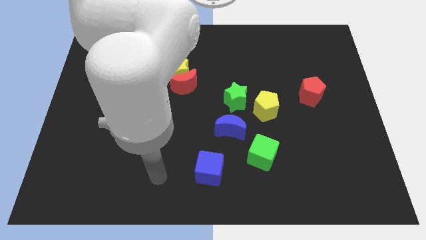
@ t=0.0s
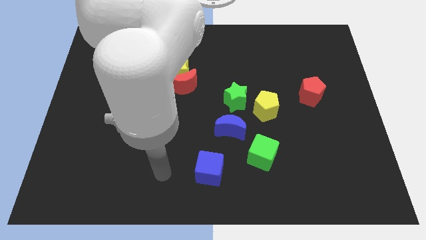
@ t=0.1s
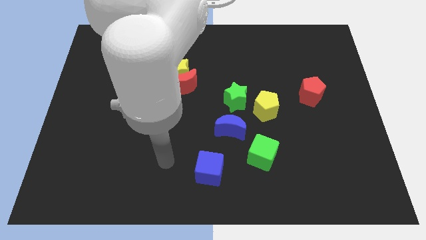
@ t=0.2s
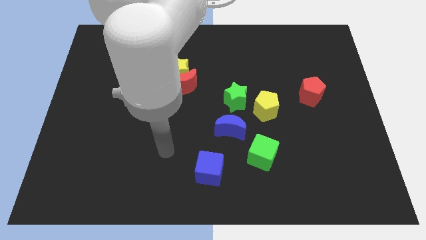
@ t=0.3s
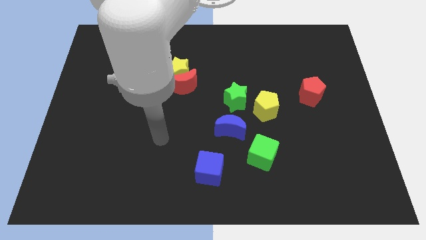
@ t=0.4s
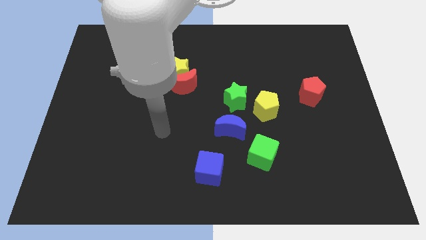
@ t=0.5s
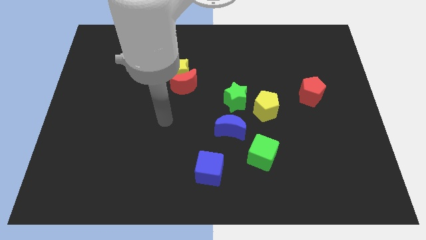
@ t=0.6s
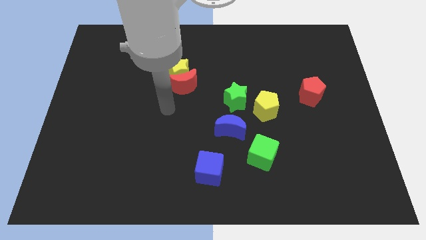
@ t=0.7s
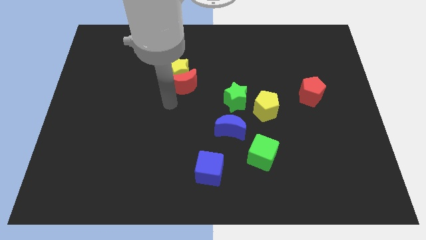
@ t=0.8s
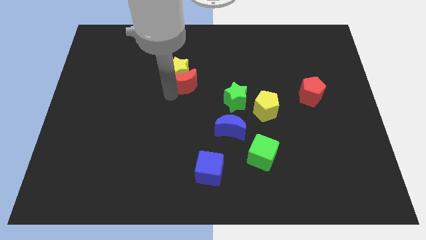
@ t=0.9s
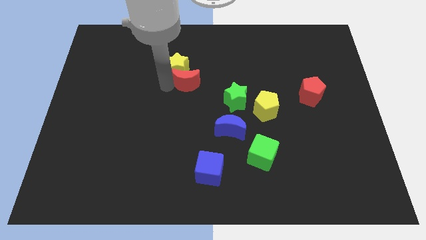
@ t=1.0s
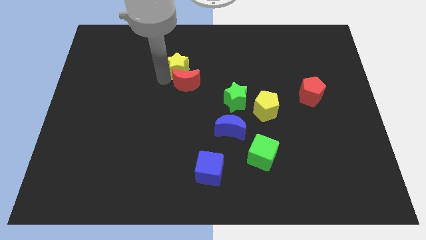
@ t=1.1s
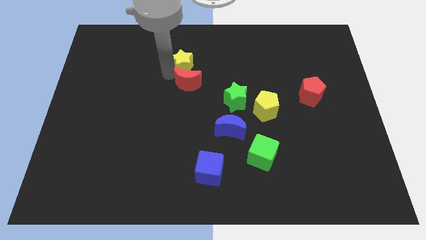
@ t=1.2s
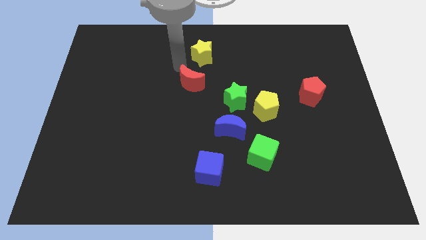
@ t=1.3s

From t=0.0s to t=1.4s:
separate the red moon from the yellow star

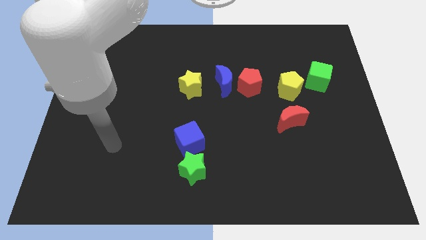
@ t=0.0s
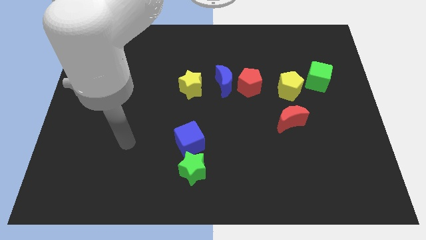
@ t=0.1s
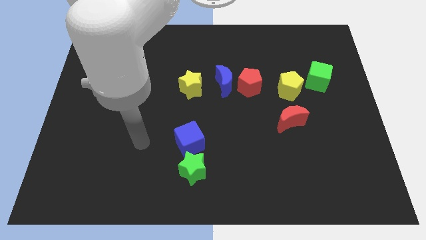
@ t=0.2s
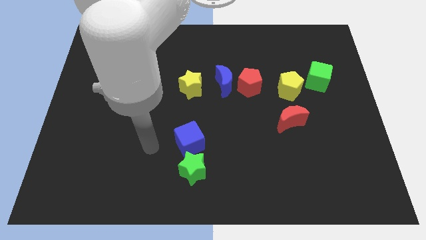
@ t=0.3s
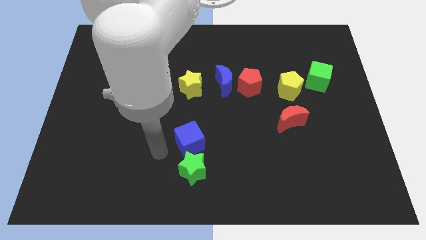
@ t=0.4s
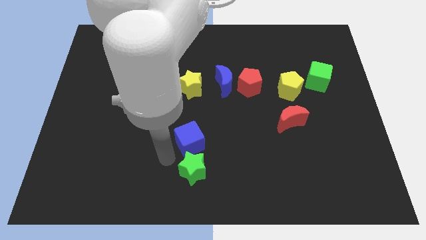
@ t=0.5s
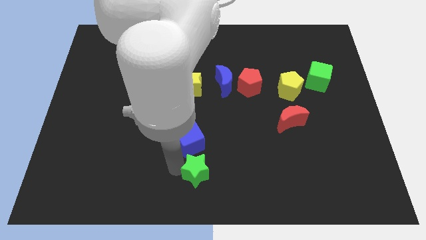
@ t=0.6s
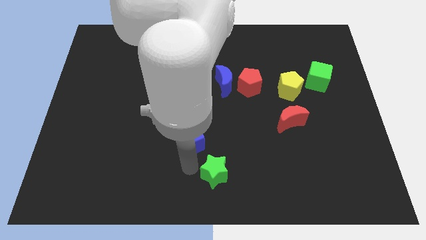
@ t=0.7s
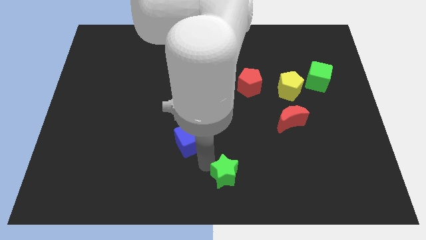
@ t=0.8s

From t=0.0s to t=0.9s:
separate the blue cube from the green star

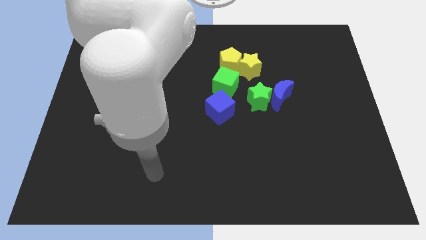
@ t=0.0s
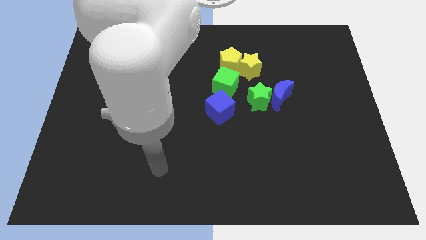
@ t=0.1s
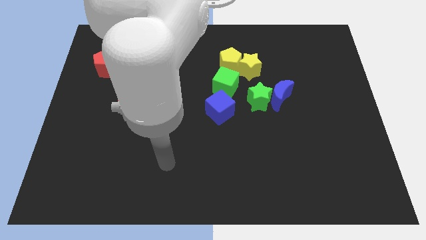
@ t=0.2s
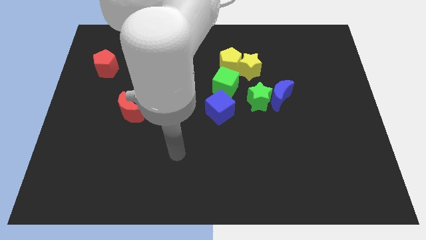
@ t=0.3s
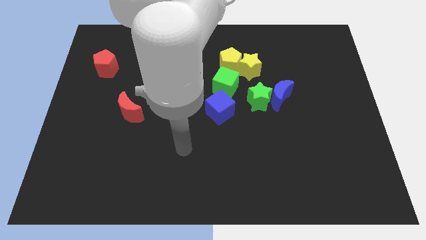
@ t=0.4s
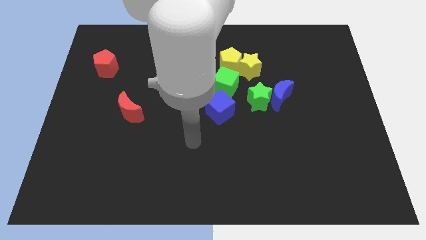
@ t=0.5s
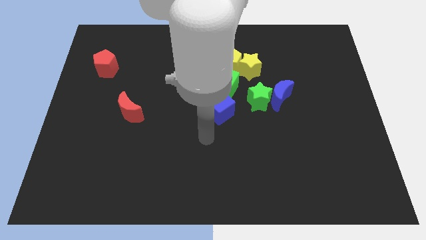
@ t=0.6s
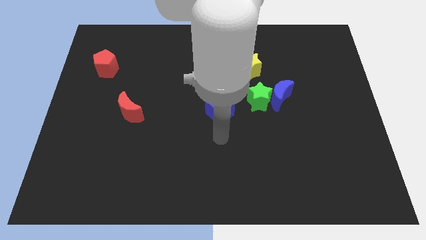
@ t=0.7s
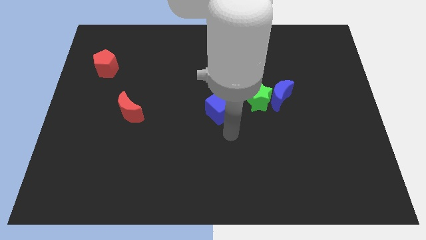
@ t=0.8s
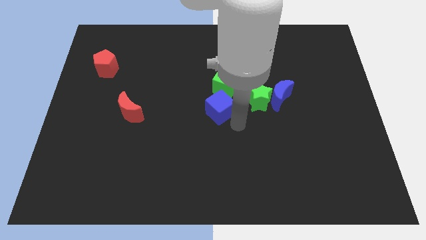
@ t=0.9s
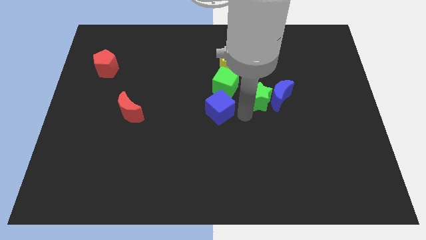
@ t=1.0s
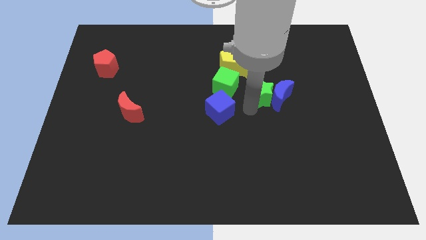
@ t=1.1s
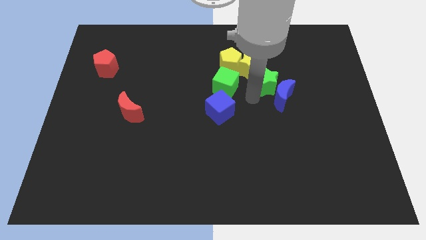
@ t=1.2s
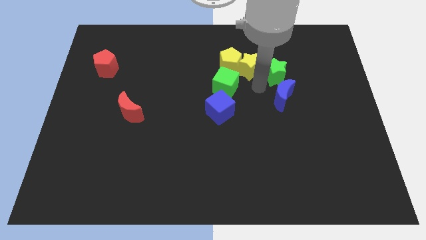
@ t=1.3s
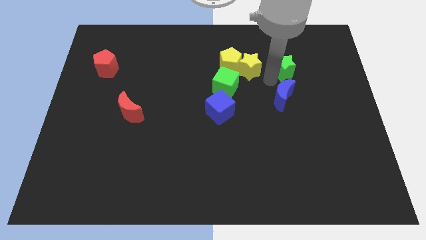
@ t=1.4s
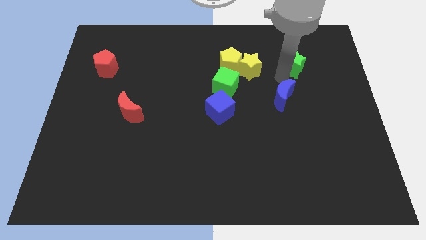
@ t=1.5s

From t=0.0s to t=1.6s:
separate the blue moon from the green star

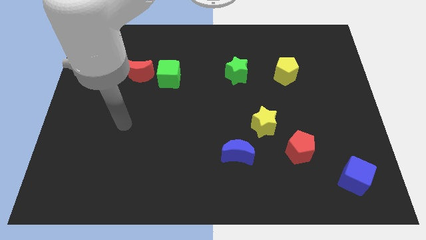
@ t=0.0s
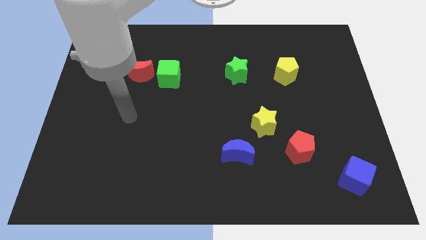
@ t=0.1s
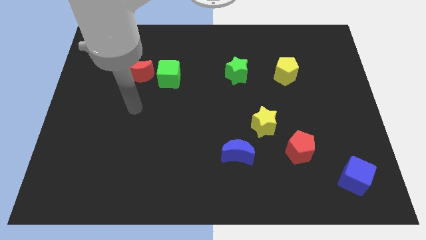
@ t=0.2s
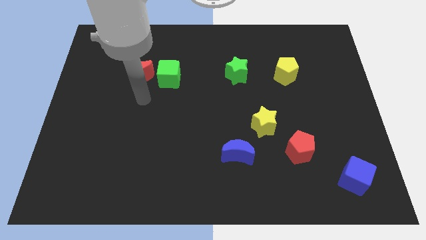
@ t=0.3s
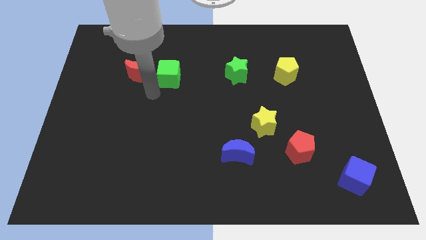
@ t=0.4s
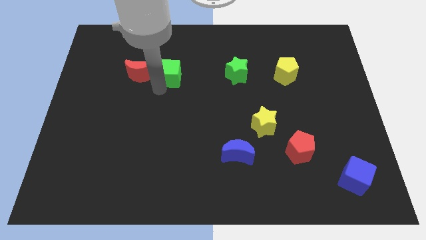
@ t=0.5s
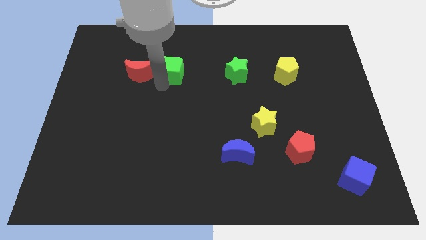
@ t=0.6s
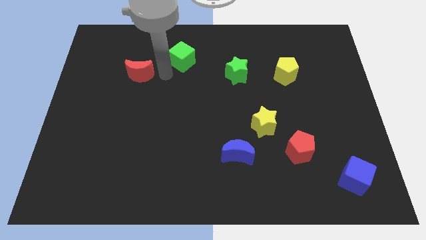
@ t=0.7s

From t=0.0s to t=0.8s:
separate the red moon from the green cube

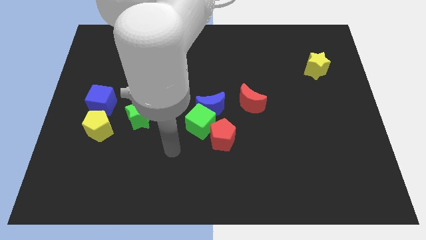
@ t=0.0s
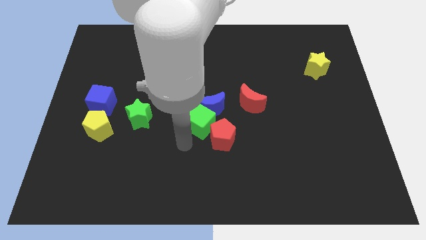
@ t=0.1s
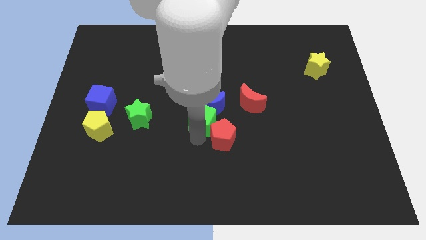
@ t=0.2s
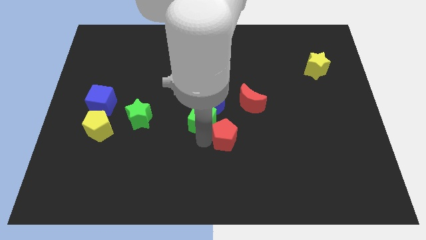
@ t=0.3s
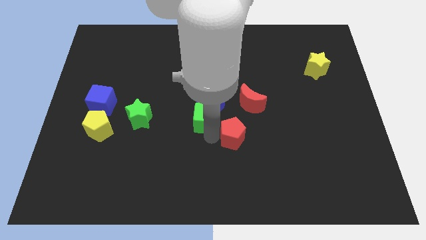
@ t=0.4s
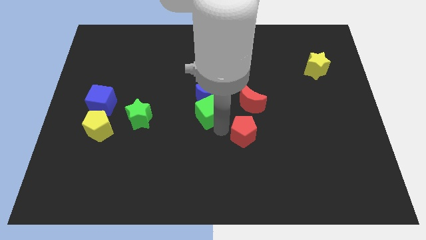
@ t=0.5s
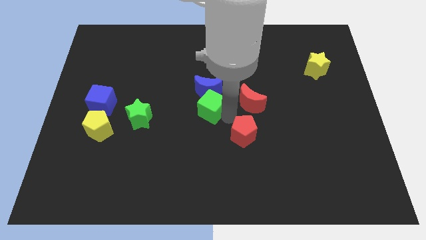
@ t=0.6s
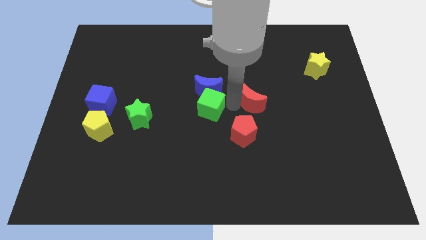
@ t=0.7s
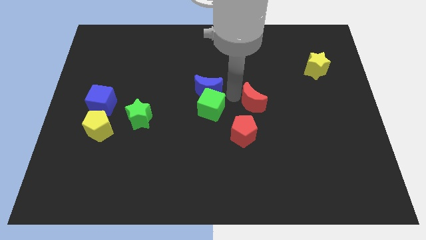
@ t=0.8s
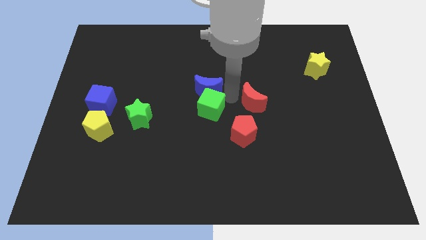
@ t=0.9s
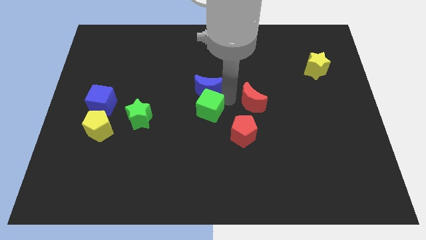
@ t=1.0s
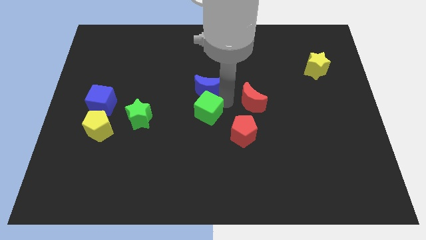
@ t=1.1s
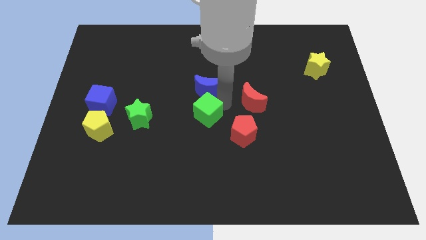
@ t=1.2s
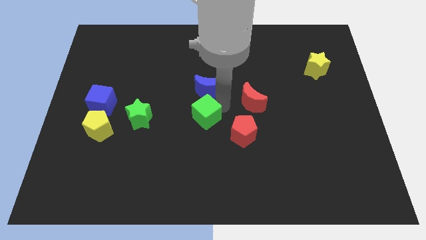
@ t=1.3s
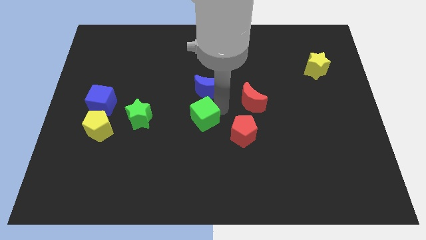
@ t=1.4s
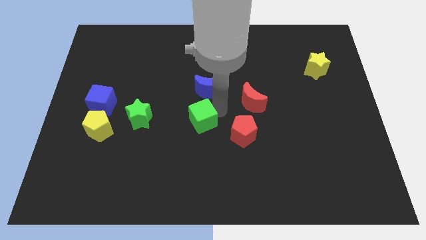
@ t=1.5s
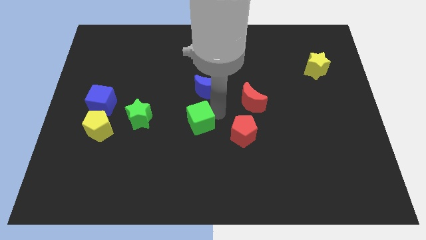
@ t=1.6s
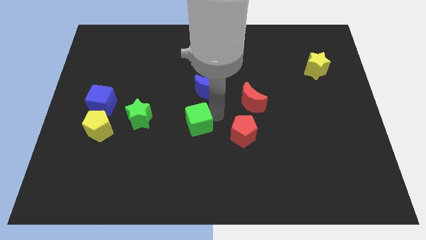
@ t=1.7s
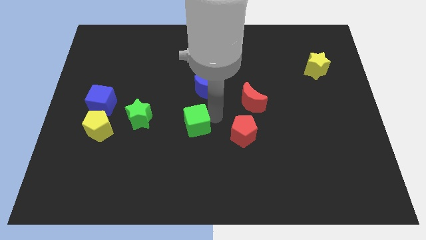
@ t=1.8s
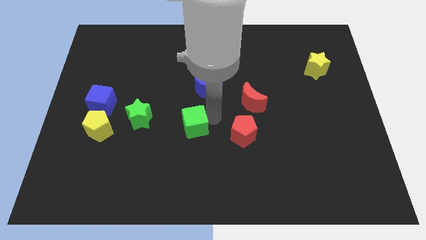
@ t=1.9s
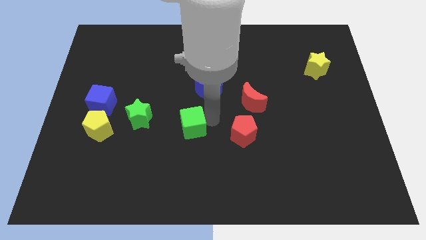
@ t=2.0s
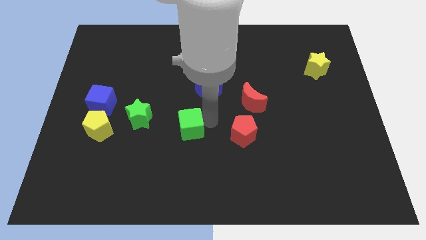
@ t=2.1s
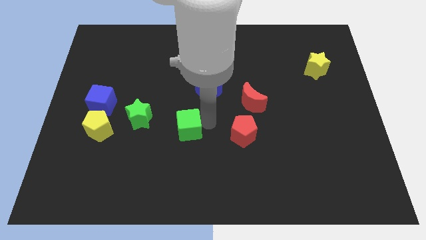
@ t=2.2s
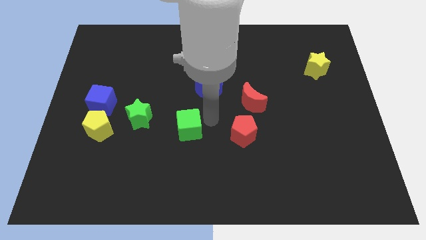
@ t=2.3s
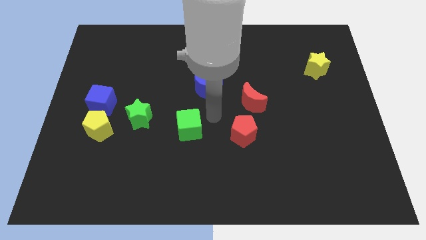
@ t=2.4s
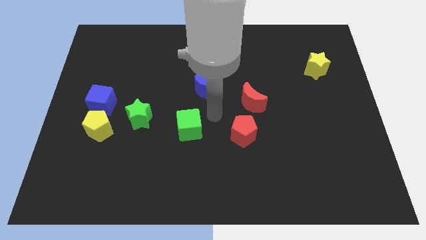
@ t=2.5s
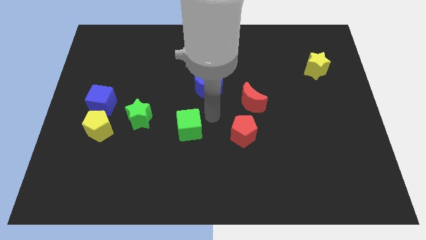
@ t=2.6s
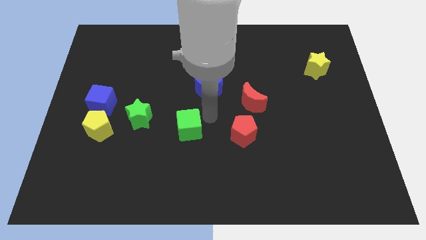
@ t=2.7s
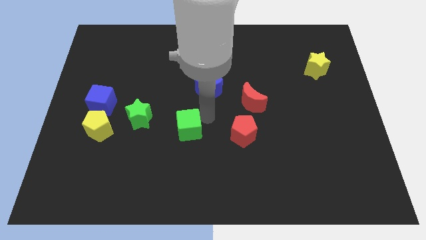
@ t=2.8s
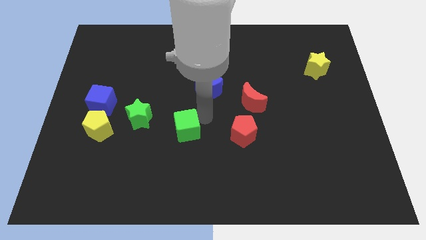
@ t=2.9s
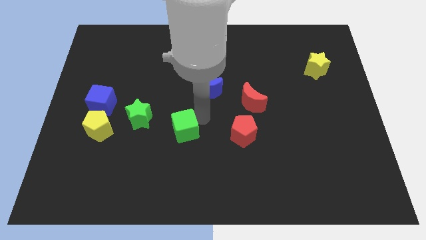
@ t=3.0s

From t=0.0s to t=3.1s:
pull the green cube apart from the blue moon and red pentagon

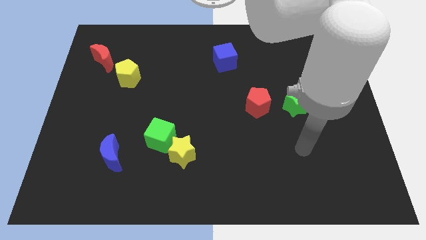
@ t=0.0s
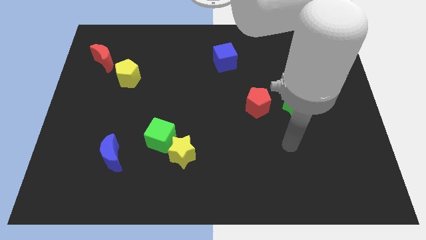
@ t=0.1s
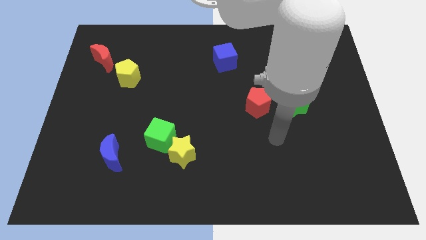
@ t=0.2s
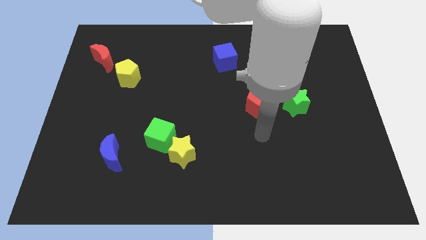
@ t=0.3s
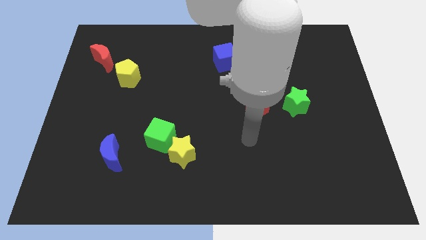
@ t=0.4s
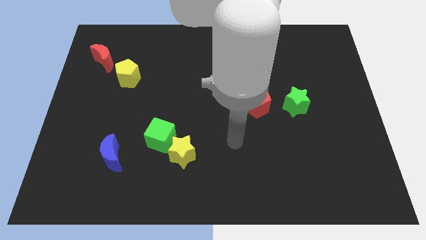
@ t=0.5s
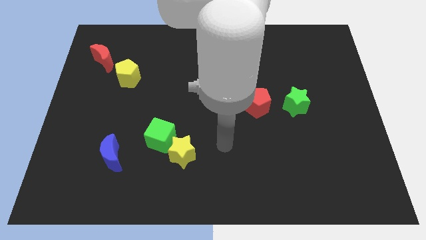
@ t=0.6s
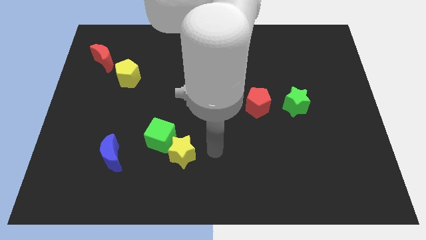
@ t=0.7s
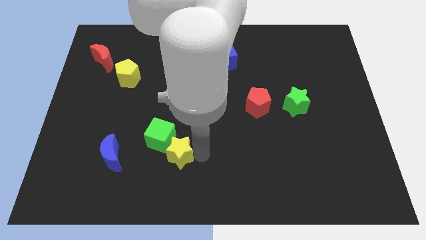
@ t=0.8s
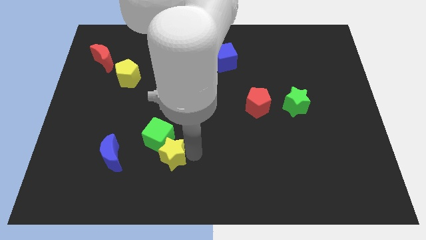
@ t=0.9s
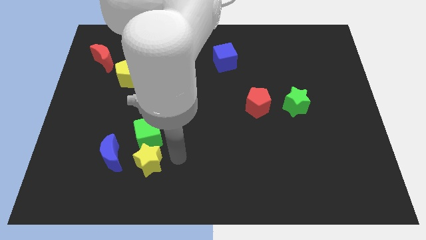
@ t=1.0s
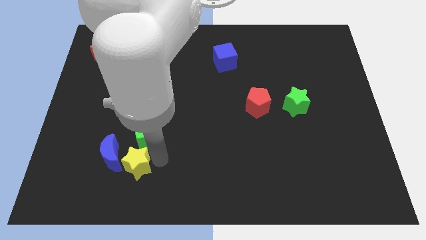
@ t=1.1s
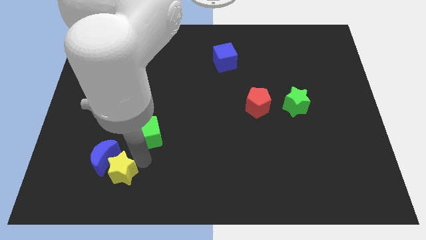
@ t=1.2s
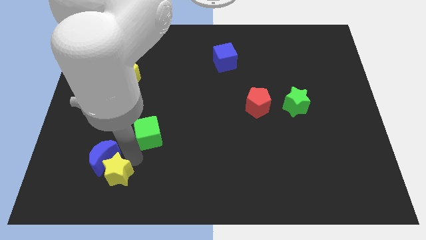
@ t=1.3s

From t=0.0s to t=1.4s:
separate the green cube from the yellow star
